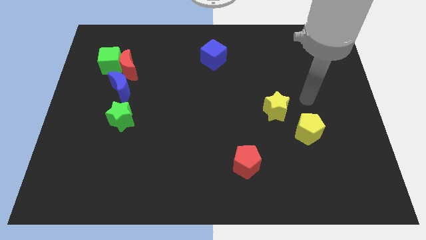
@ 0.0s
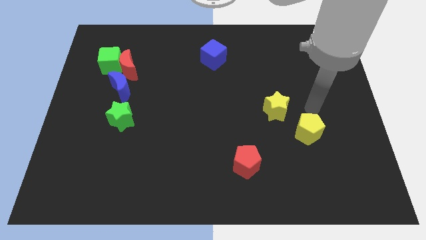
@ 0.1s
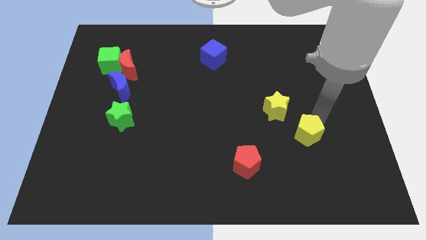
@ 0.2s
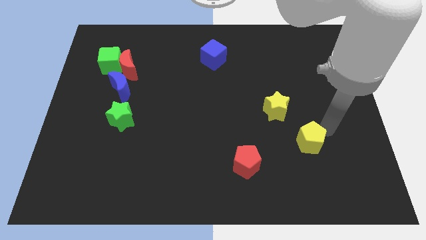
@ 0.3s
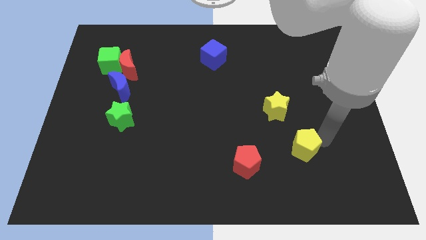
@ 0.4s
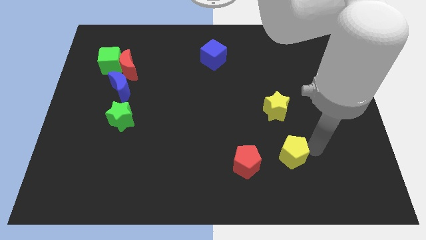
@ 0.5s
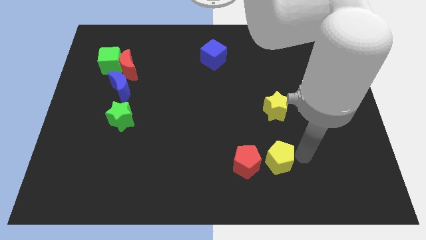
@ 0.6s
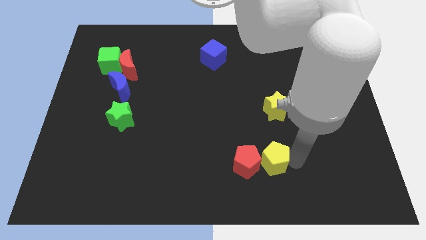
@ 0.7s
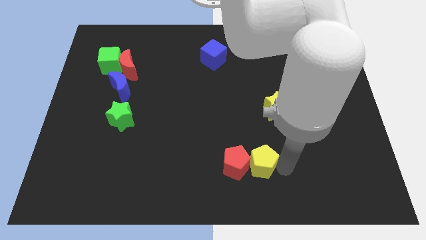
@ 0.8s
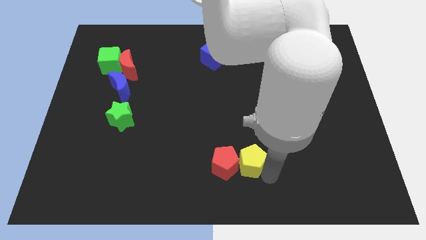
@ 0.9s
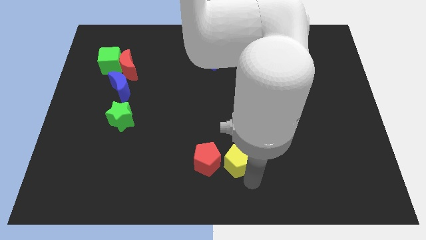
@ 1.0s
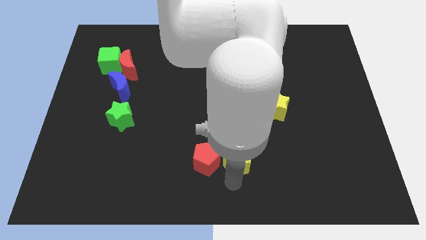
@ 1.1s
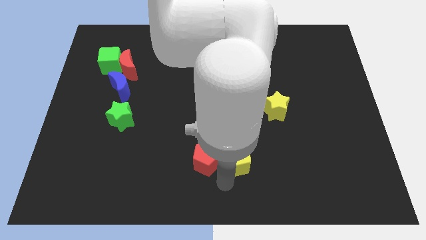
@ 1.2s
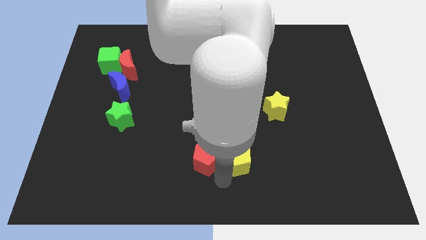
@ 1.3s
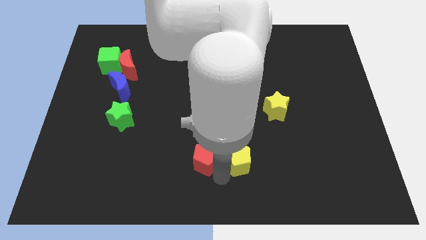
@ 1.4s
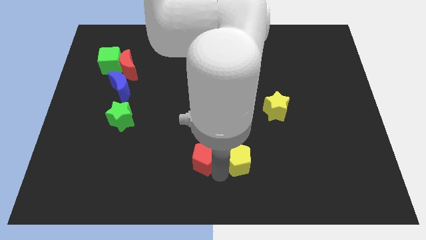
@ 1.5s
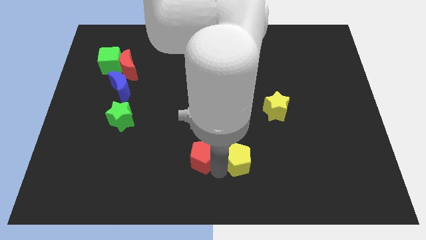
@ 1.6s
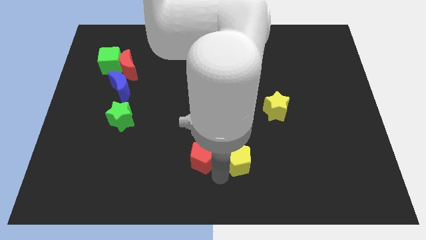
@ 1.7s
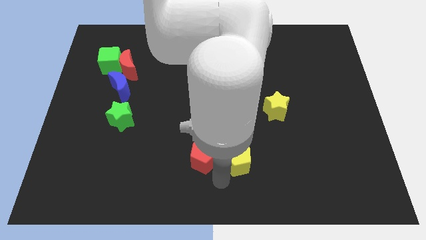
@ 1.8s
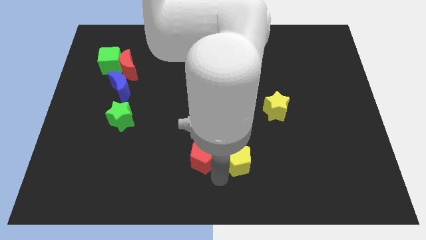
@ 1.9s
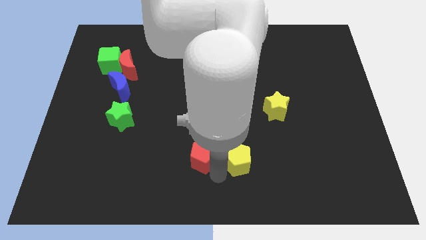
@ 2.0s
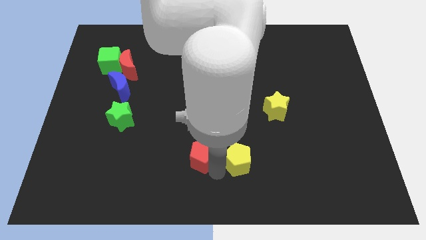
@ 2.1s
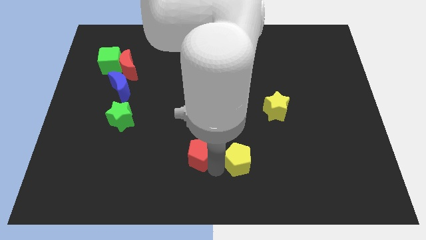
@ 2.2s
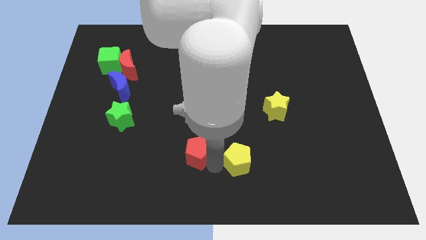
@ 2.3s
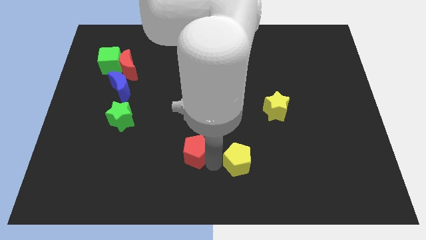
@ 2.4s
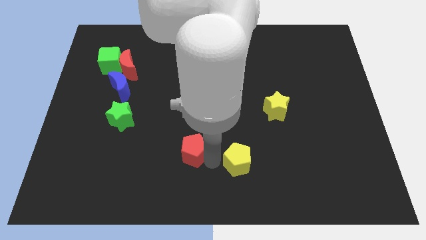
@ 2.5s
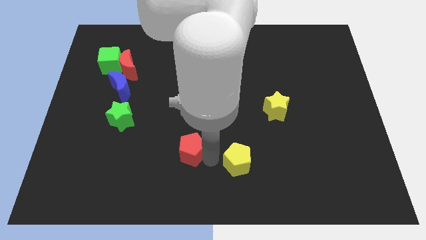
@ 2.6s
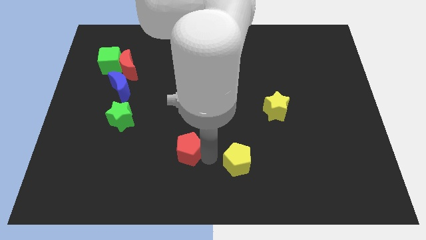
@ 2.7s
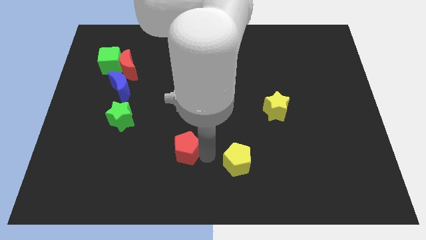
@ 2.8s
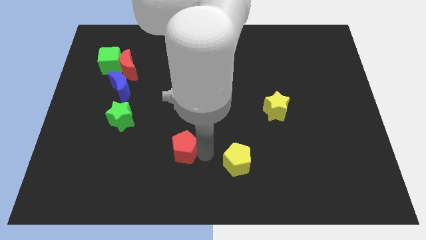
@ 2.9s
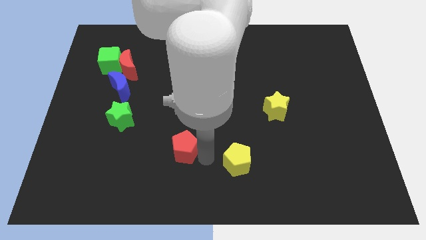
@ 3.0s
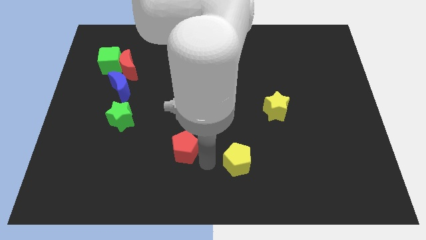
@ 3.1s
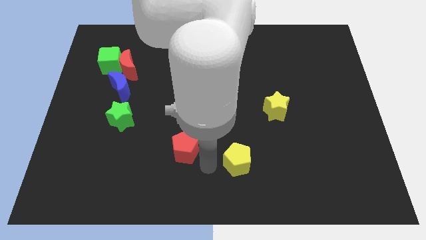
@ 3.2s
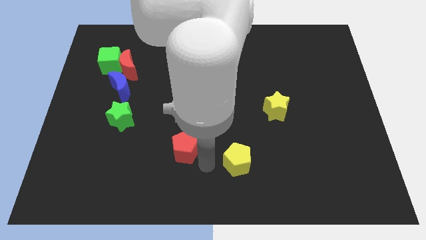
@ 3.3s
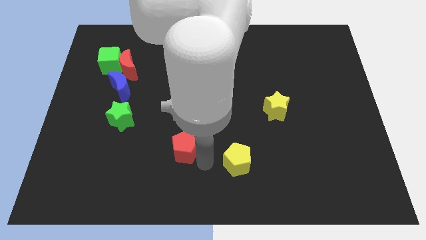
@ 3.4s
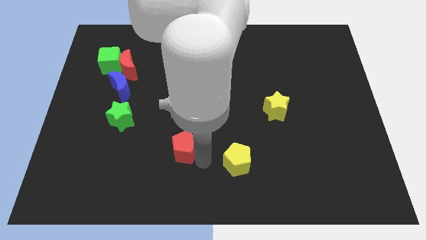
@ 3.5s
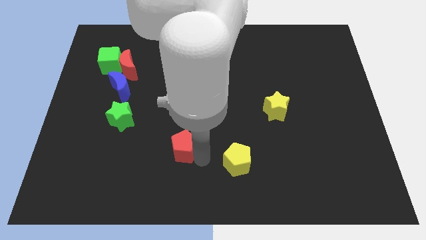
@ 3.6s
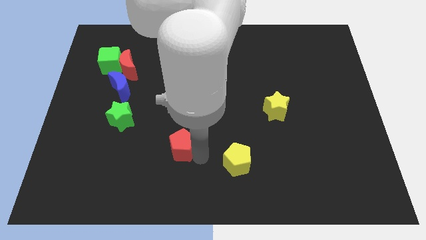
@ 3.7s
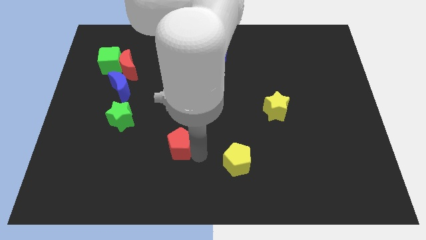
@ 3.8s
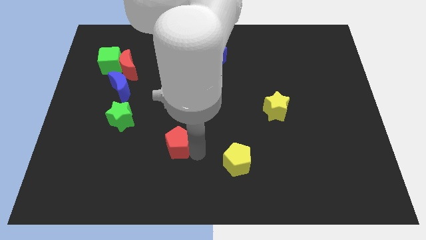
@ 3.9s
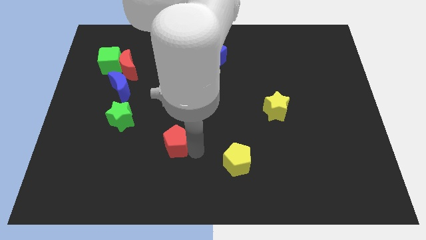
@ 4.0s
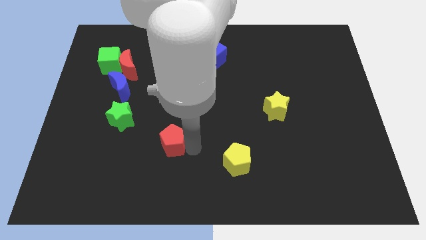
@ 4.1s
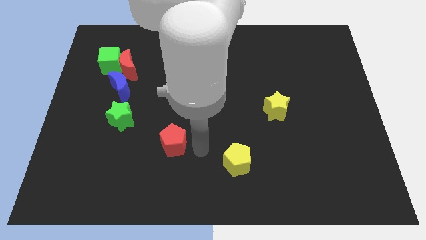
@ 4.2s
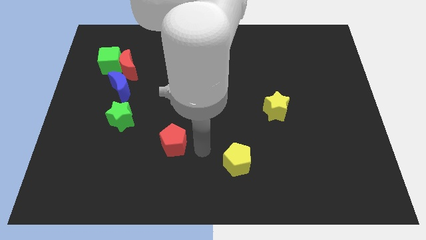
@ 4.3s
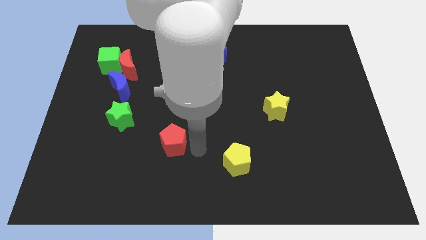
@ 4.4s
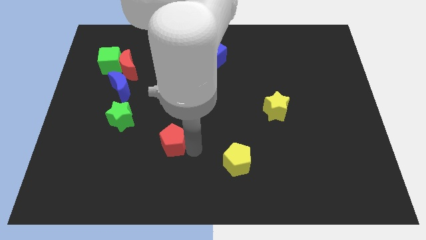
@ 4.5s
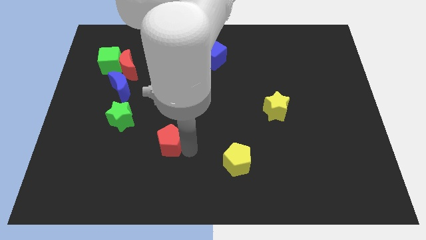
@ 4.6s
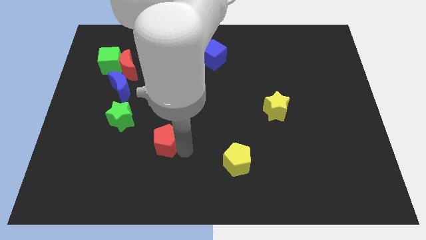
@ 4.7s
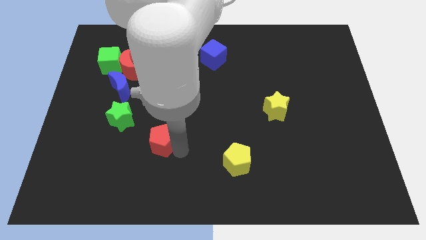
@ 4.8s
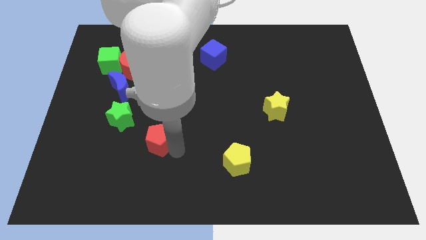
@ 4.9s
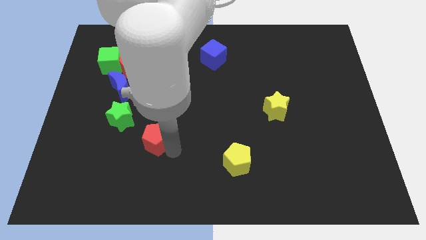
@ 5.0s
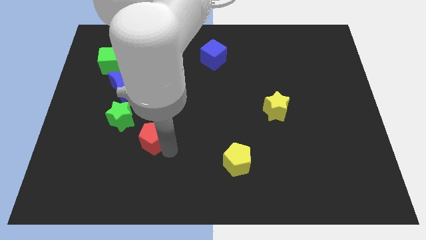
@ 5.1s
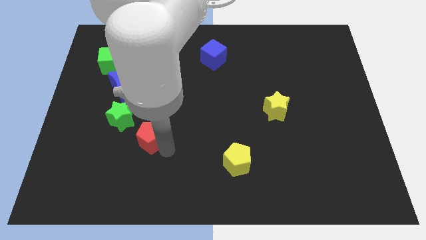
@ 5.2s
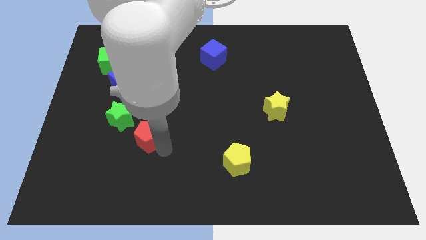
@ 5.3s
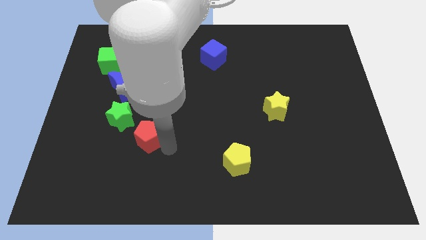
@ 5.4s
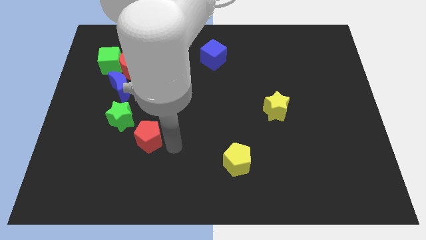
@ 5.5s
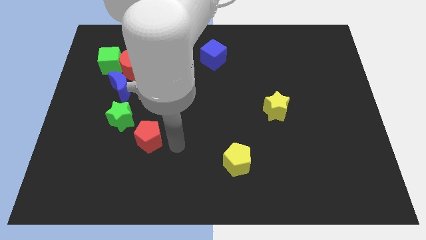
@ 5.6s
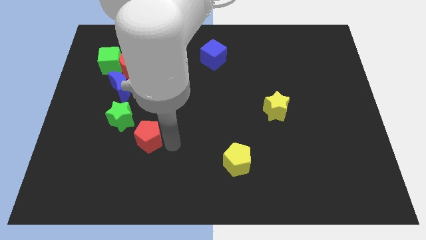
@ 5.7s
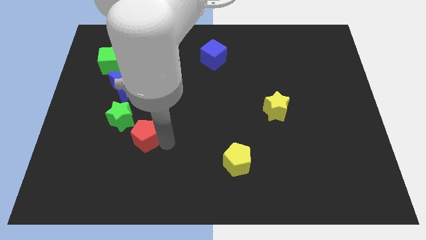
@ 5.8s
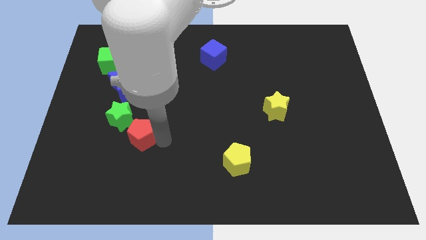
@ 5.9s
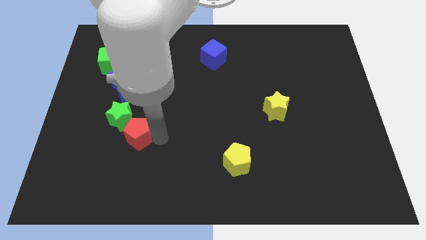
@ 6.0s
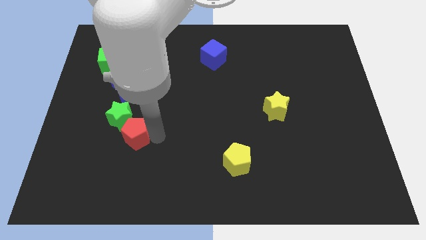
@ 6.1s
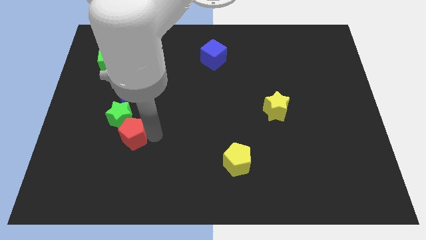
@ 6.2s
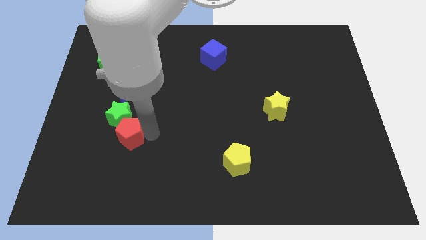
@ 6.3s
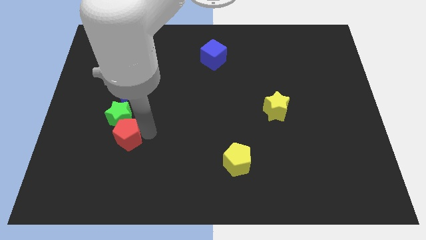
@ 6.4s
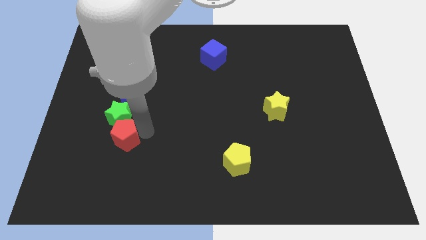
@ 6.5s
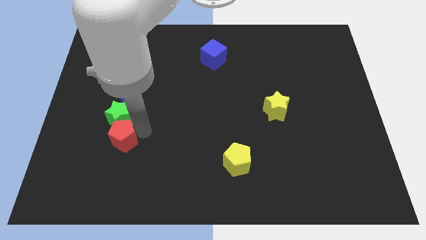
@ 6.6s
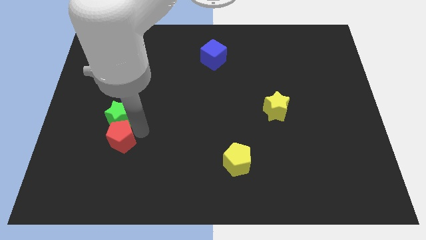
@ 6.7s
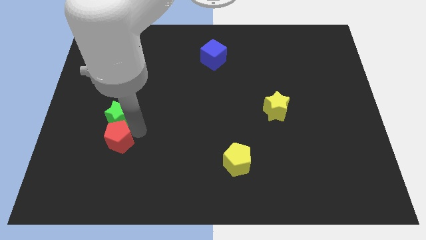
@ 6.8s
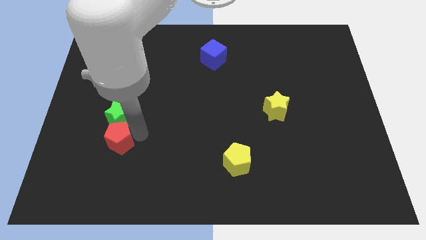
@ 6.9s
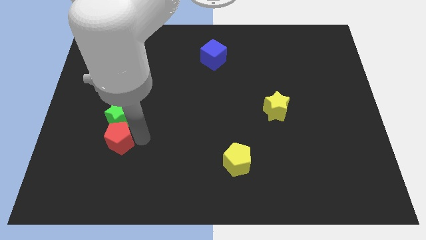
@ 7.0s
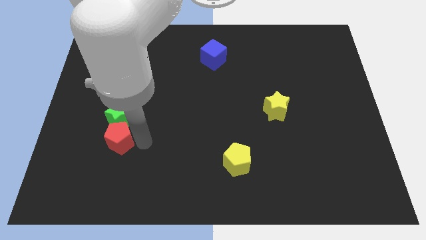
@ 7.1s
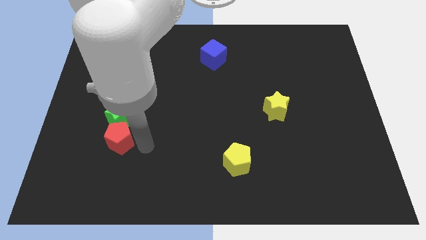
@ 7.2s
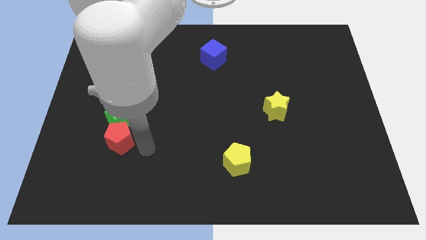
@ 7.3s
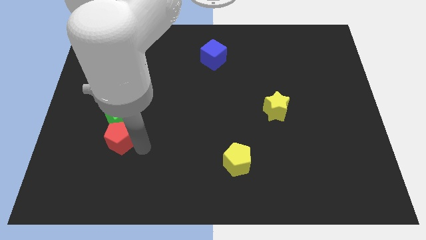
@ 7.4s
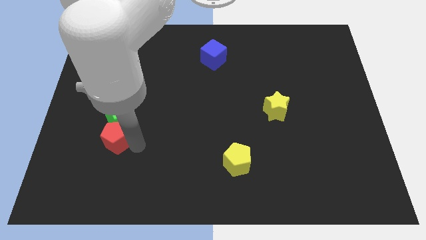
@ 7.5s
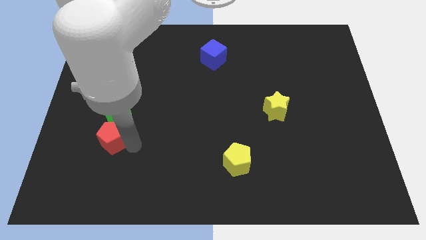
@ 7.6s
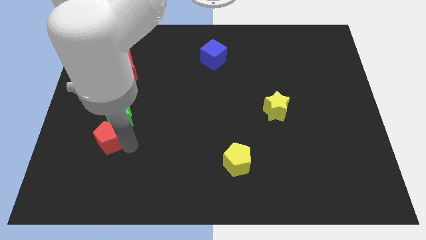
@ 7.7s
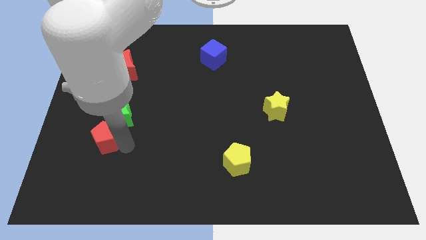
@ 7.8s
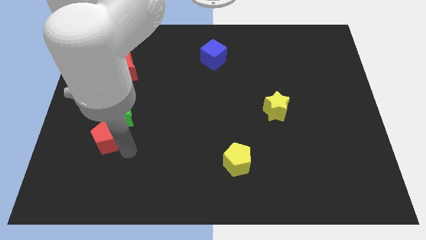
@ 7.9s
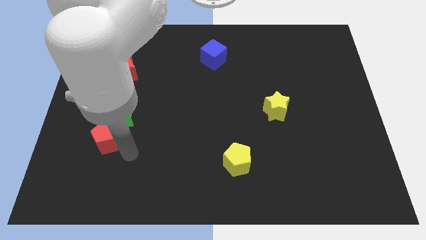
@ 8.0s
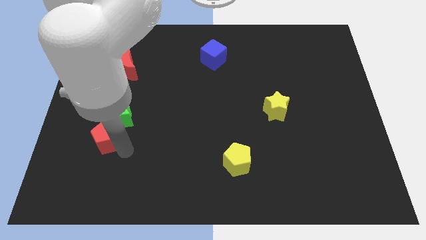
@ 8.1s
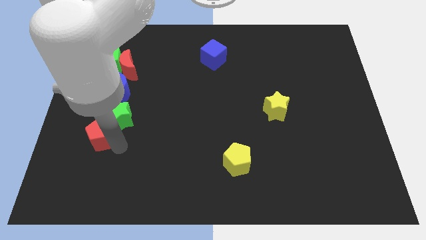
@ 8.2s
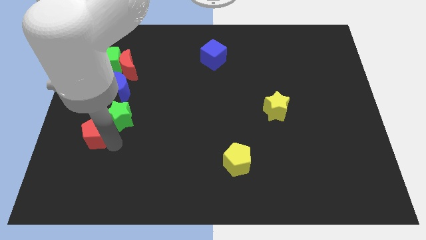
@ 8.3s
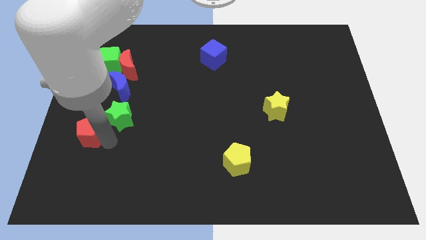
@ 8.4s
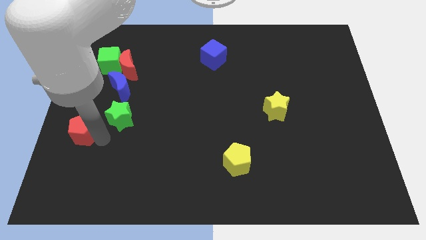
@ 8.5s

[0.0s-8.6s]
slide the red pentagon to the left side of the board
